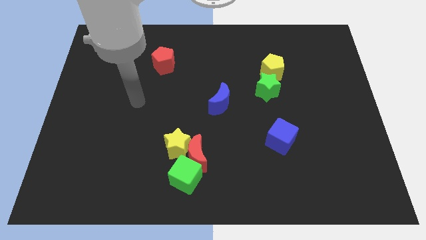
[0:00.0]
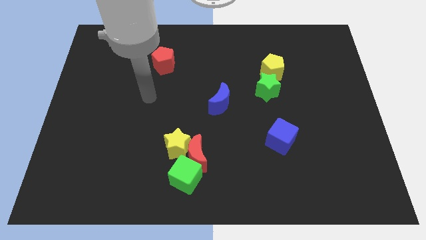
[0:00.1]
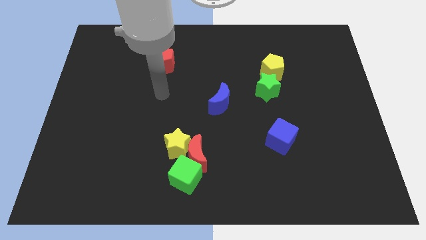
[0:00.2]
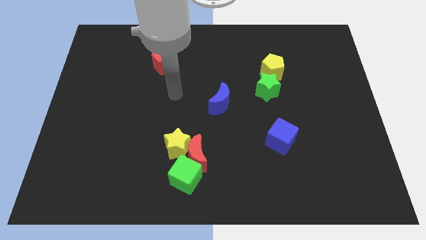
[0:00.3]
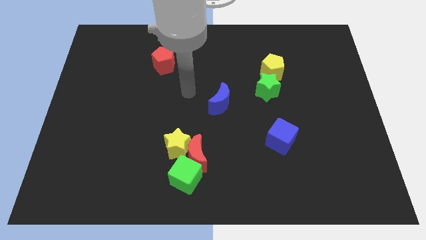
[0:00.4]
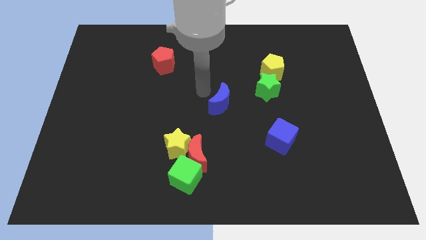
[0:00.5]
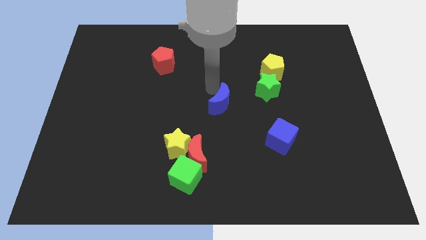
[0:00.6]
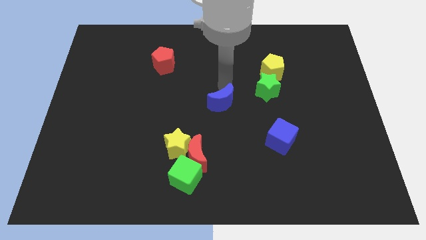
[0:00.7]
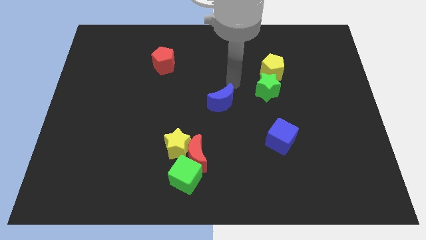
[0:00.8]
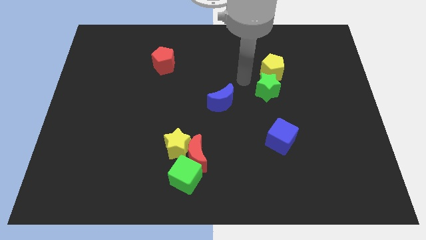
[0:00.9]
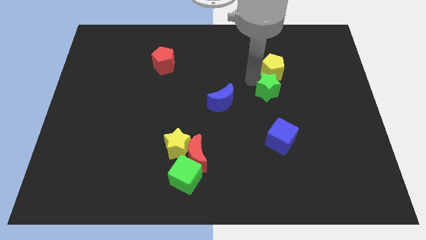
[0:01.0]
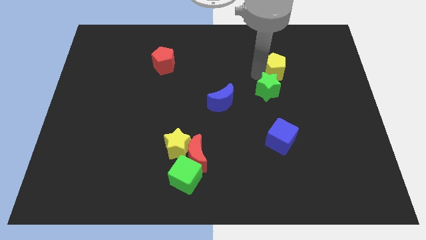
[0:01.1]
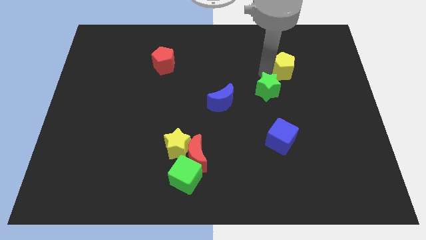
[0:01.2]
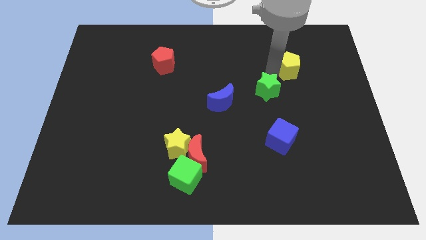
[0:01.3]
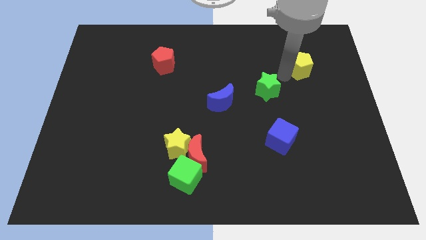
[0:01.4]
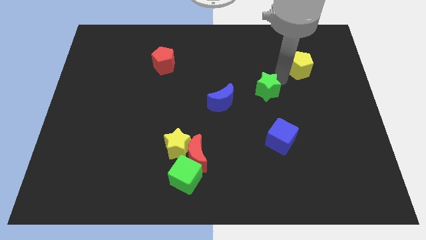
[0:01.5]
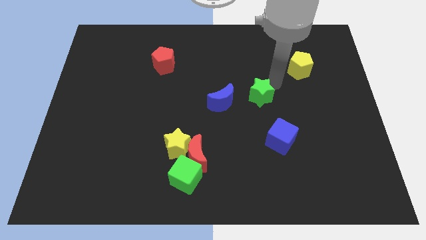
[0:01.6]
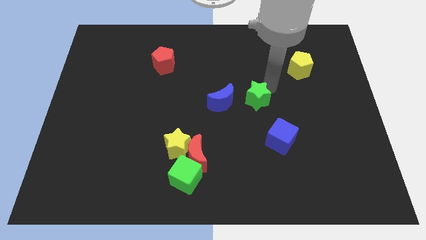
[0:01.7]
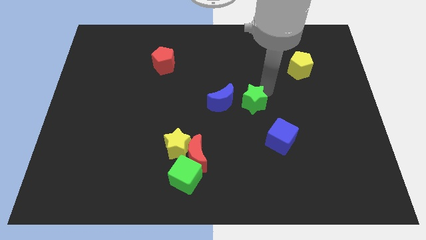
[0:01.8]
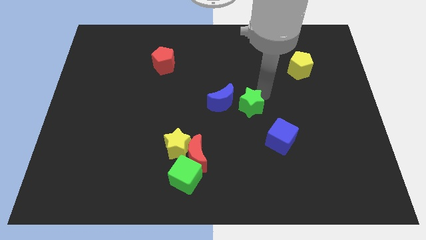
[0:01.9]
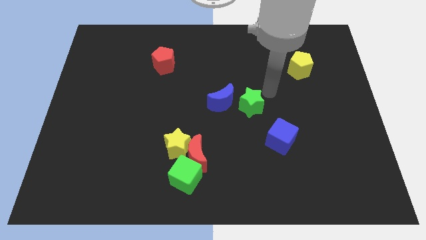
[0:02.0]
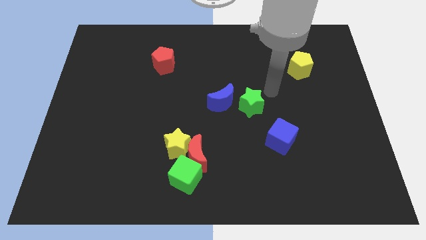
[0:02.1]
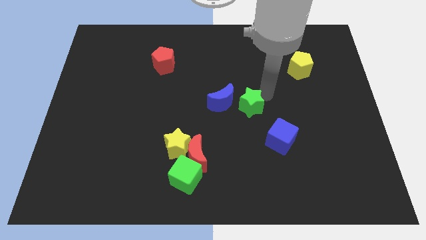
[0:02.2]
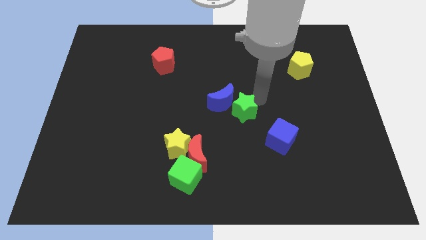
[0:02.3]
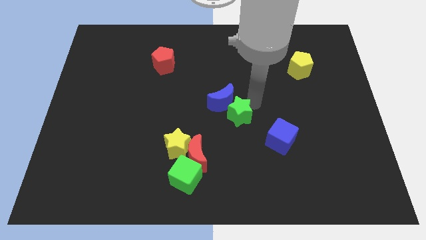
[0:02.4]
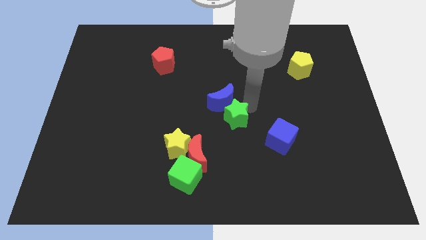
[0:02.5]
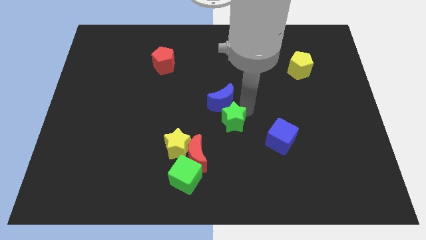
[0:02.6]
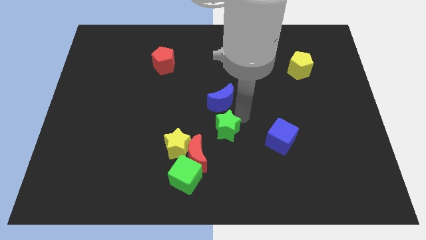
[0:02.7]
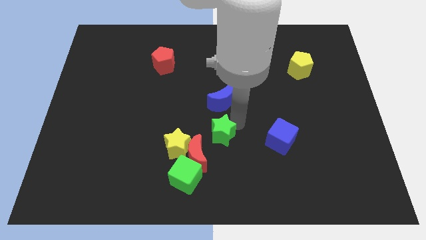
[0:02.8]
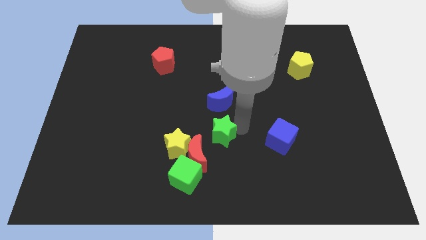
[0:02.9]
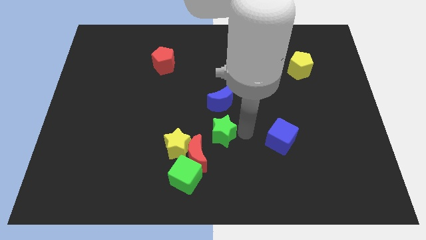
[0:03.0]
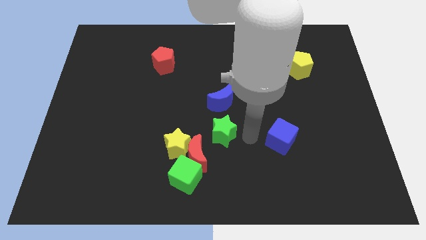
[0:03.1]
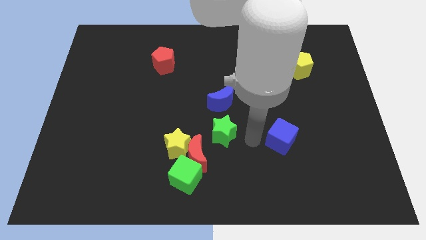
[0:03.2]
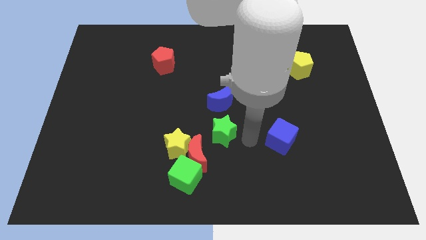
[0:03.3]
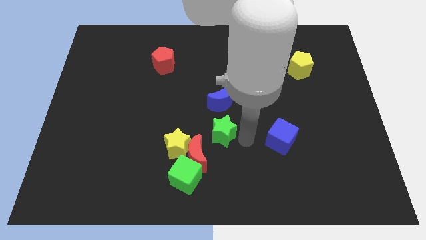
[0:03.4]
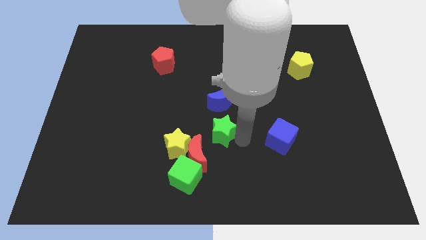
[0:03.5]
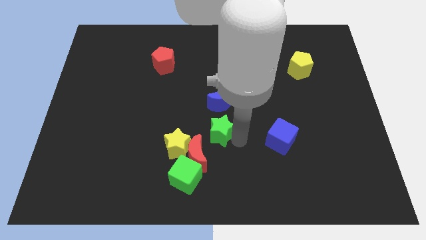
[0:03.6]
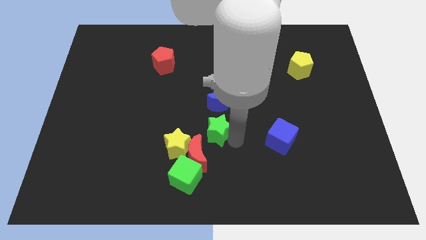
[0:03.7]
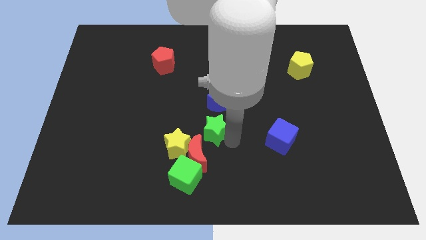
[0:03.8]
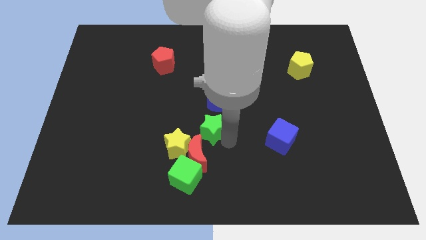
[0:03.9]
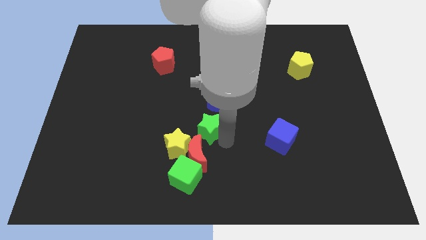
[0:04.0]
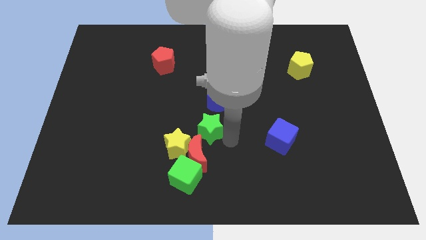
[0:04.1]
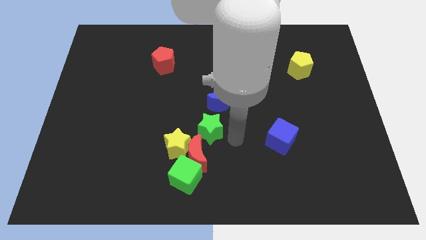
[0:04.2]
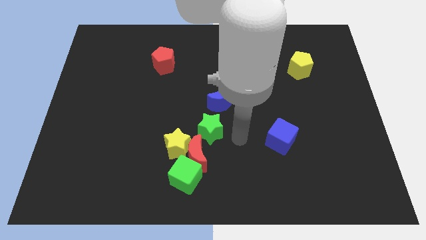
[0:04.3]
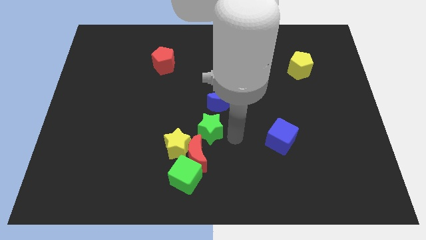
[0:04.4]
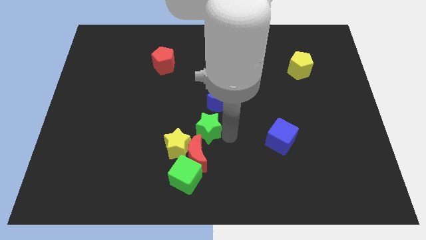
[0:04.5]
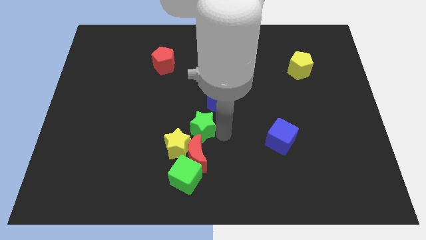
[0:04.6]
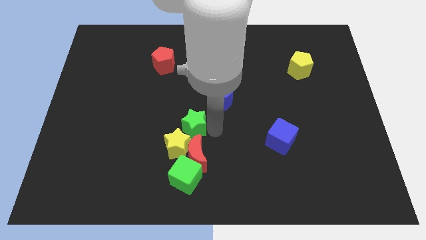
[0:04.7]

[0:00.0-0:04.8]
move the green star diagonally downwards and to the left

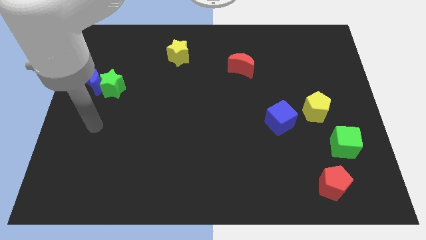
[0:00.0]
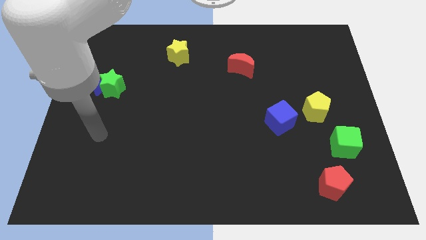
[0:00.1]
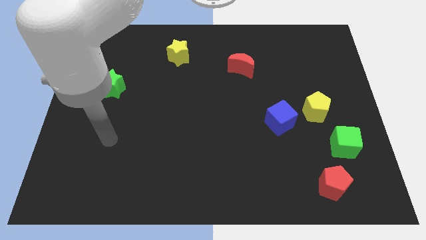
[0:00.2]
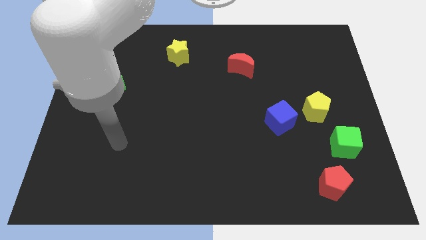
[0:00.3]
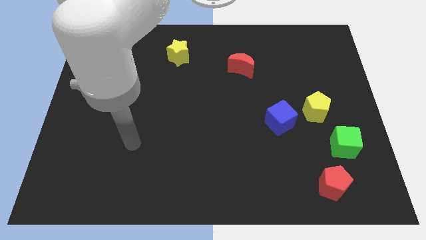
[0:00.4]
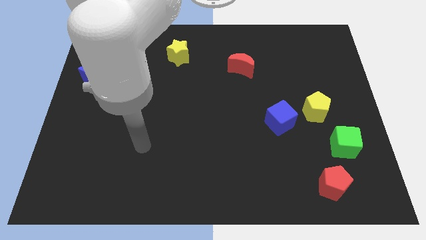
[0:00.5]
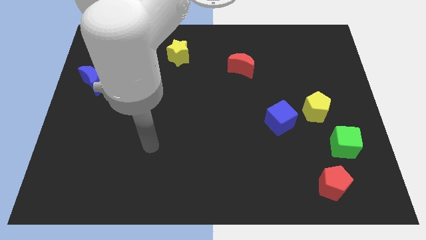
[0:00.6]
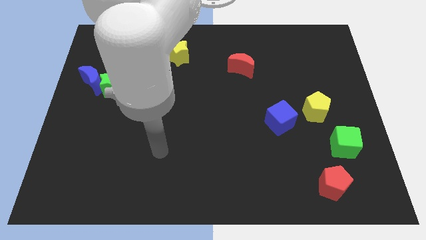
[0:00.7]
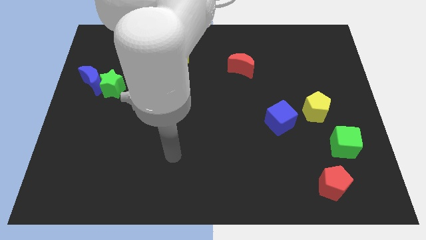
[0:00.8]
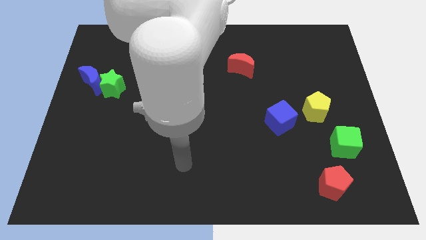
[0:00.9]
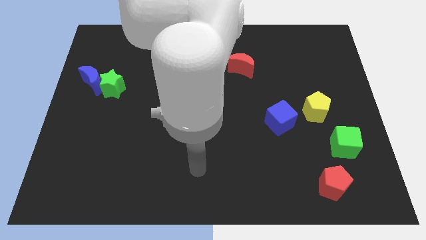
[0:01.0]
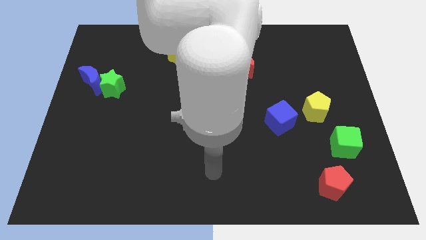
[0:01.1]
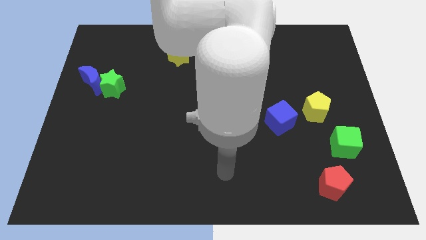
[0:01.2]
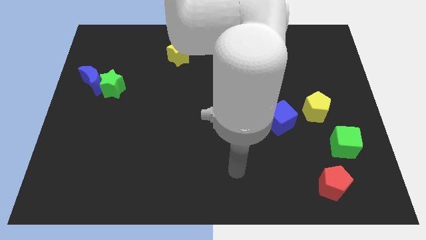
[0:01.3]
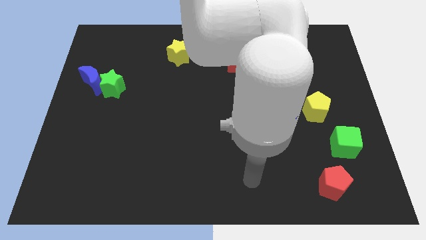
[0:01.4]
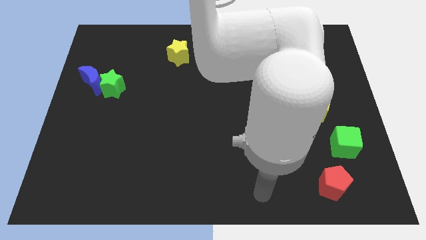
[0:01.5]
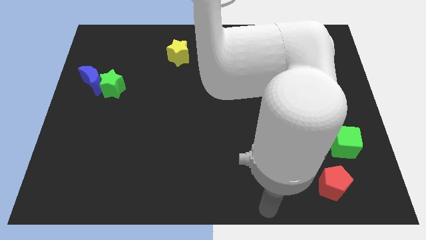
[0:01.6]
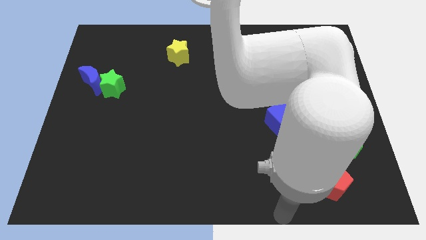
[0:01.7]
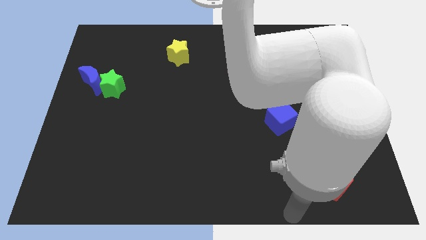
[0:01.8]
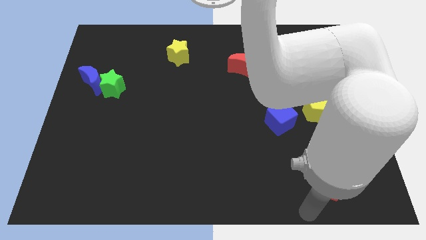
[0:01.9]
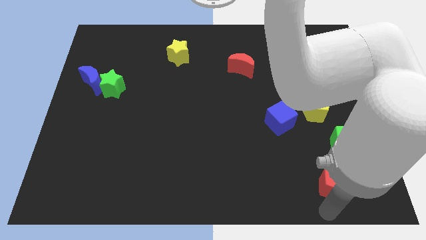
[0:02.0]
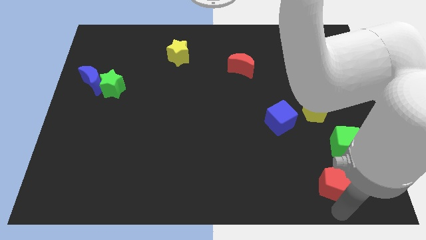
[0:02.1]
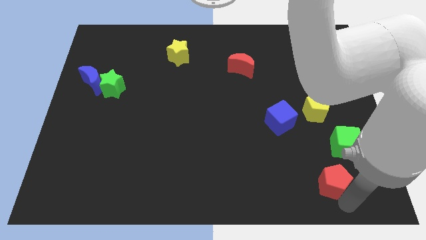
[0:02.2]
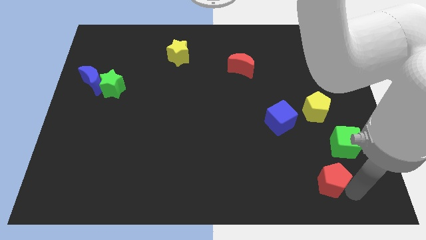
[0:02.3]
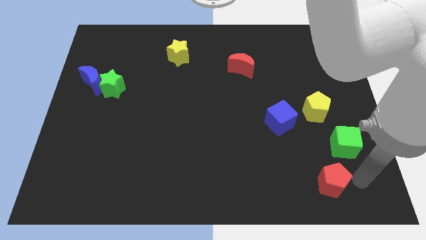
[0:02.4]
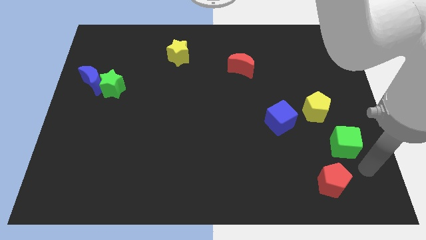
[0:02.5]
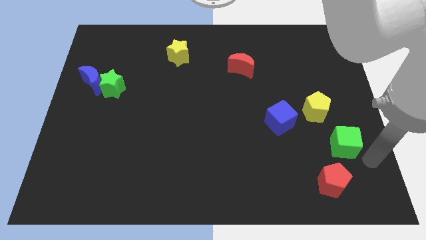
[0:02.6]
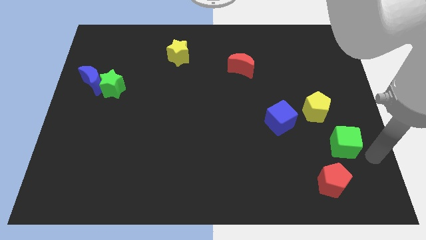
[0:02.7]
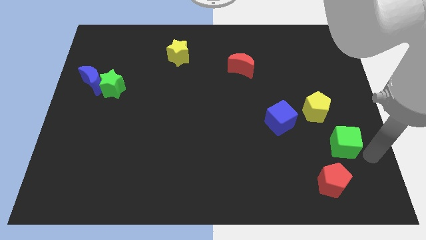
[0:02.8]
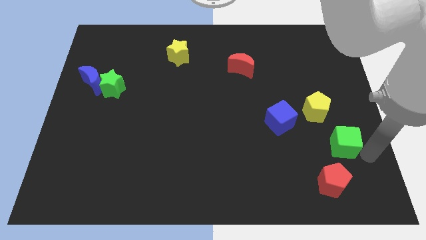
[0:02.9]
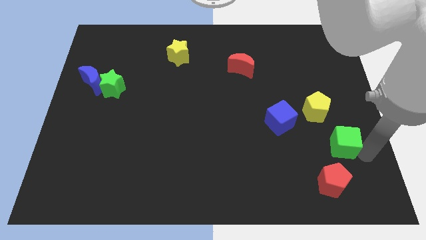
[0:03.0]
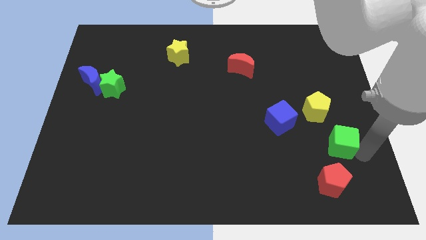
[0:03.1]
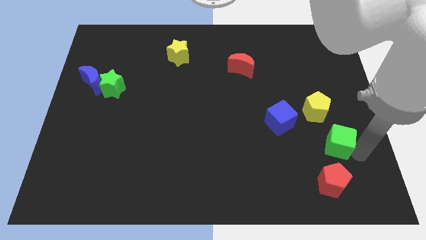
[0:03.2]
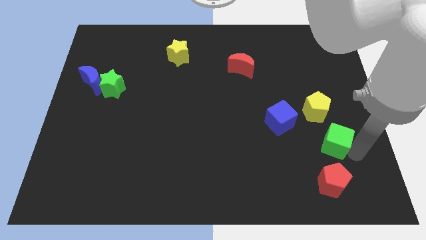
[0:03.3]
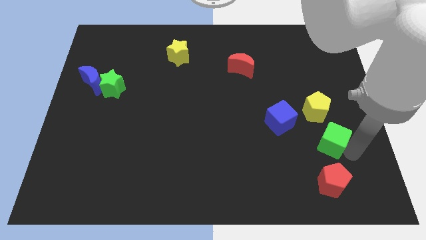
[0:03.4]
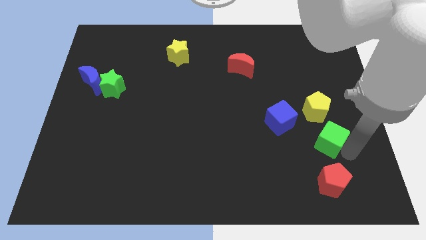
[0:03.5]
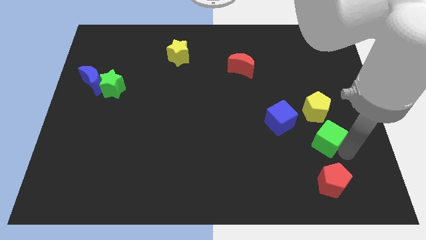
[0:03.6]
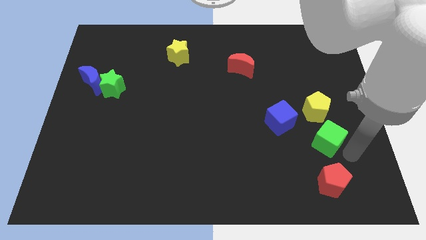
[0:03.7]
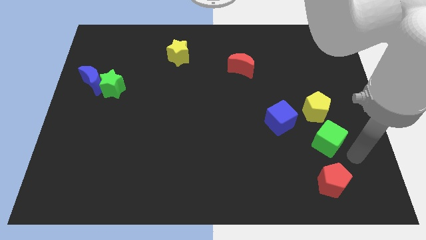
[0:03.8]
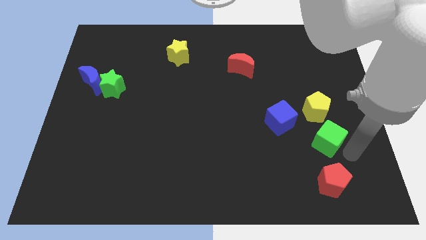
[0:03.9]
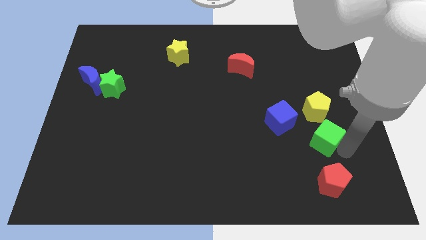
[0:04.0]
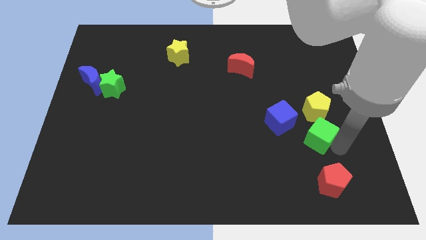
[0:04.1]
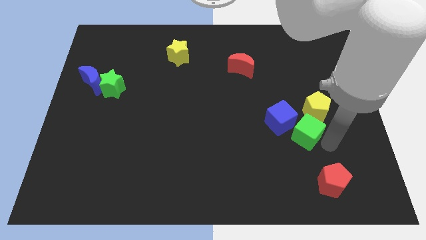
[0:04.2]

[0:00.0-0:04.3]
move the green cube a bit diagonally up and to the left
